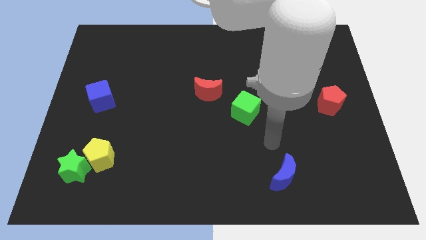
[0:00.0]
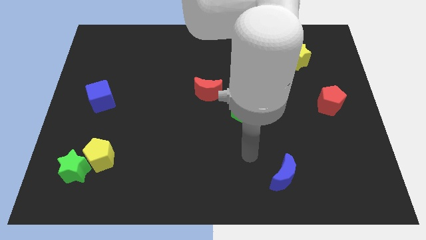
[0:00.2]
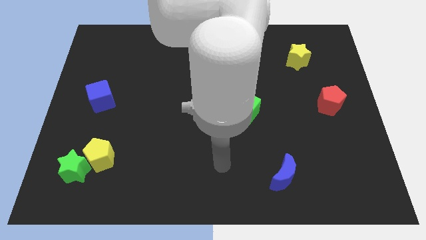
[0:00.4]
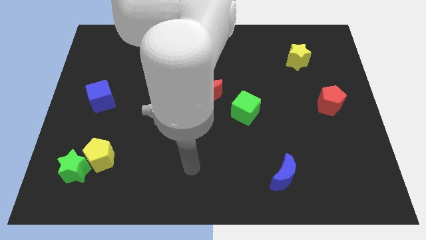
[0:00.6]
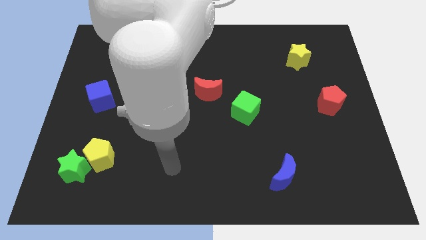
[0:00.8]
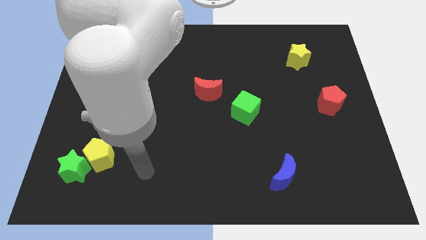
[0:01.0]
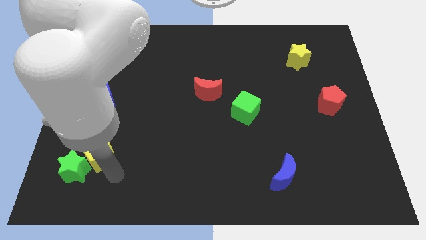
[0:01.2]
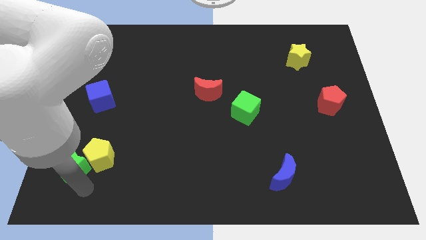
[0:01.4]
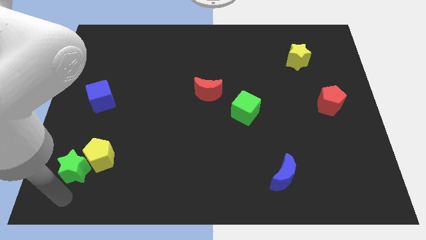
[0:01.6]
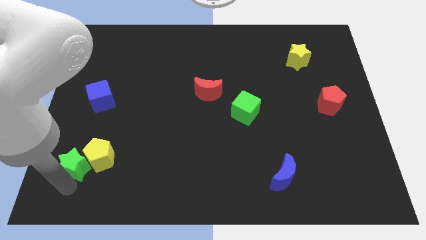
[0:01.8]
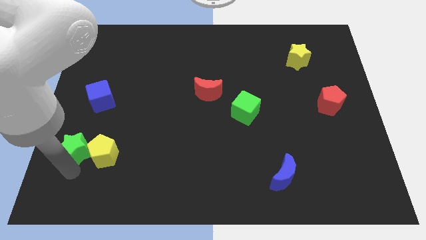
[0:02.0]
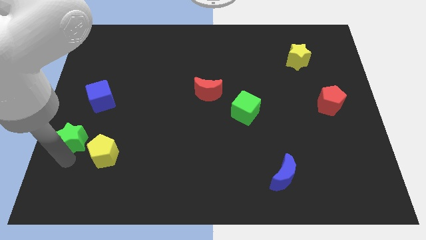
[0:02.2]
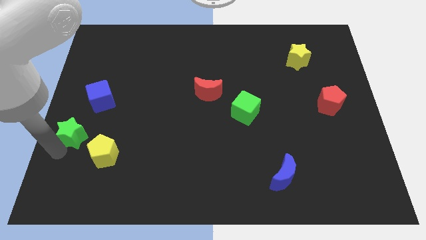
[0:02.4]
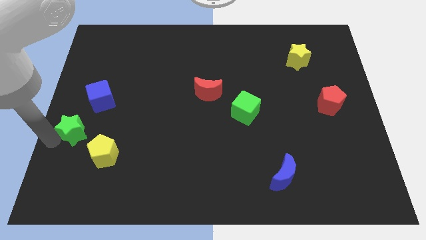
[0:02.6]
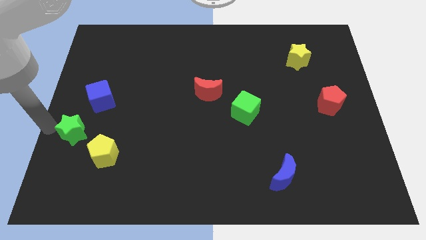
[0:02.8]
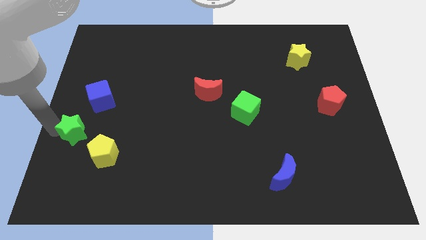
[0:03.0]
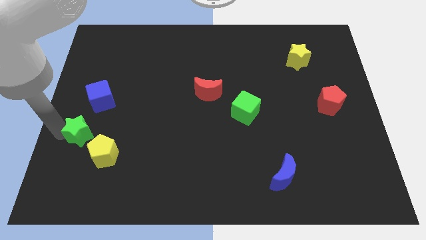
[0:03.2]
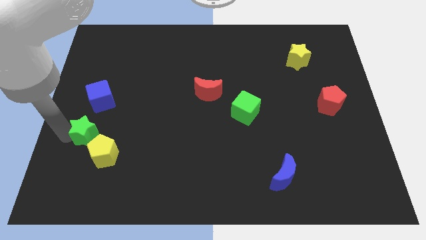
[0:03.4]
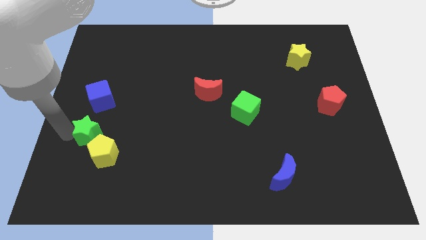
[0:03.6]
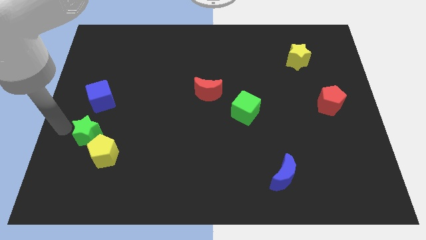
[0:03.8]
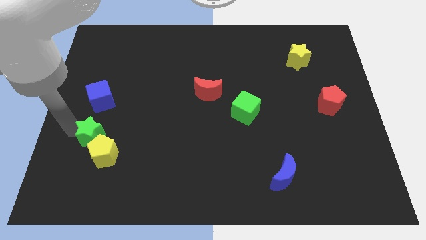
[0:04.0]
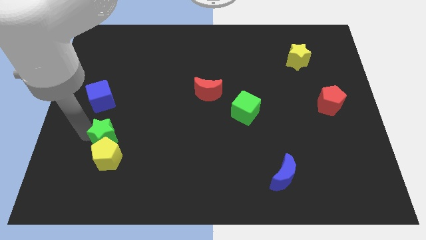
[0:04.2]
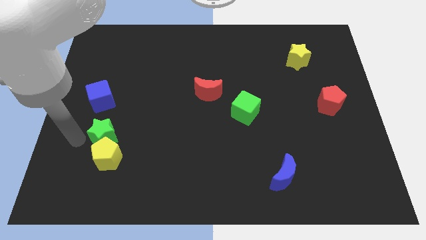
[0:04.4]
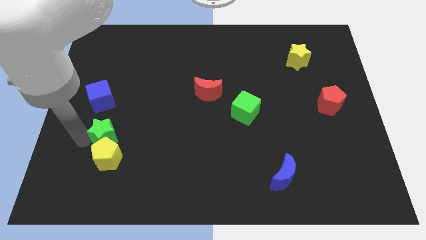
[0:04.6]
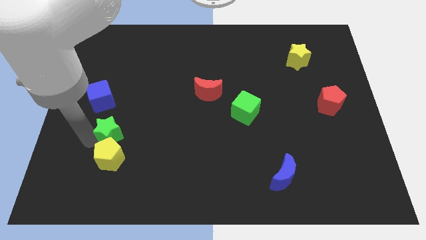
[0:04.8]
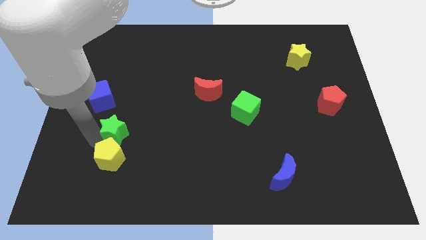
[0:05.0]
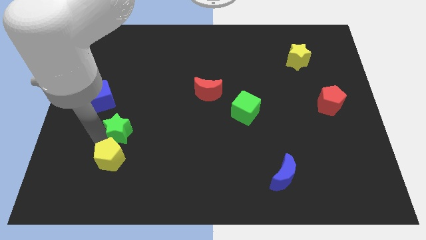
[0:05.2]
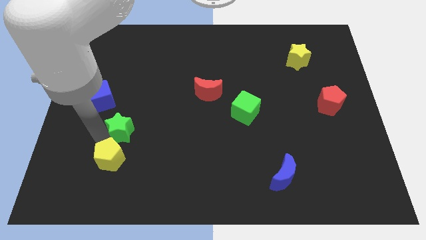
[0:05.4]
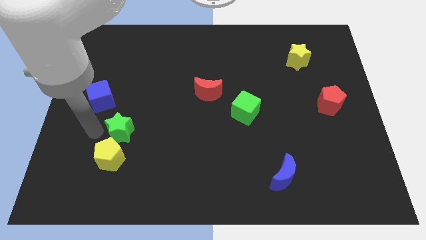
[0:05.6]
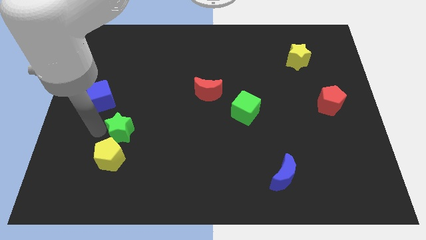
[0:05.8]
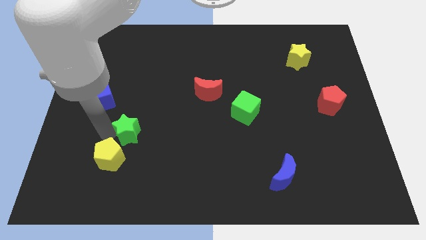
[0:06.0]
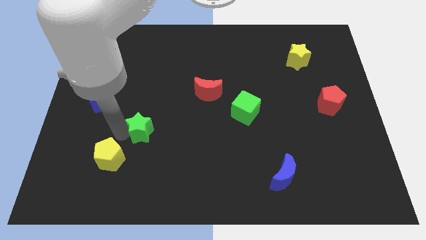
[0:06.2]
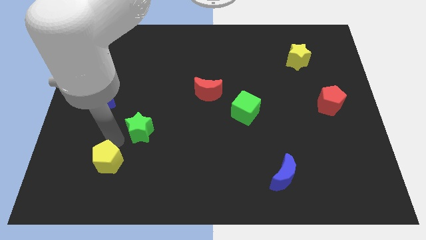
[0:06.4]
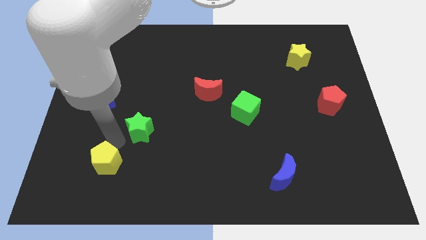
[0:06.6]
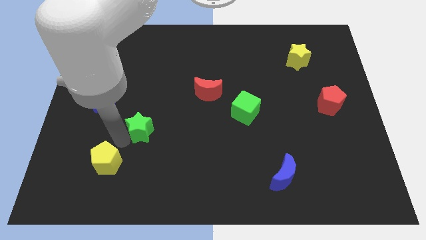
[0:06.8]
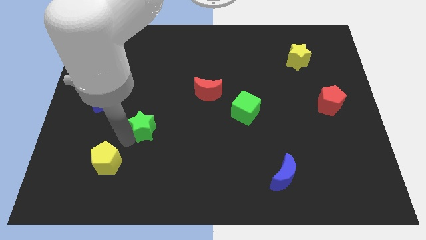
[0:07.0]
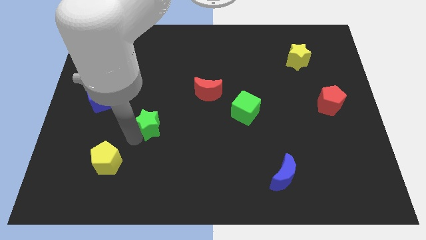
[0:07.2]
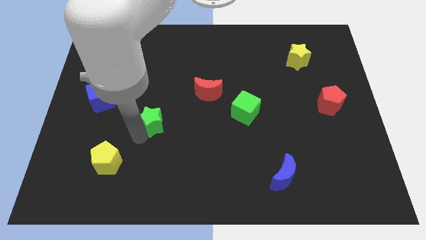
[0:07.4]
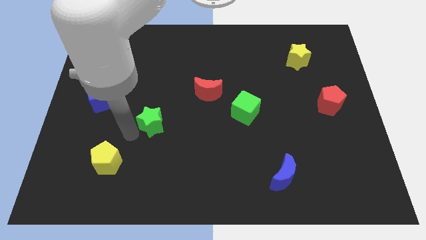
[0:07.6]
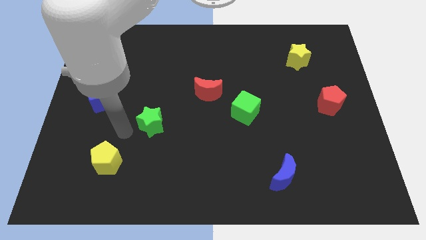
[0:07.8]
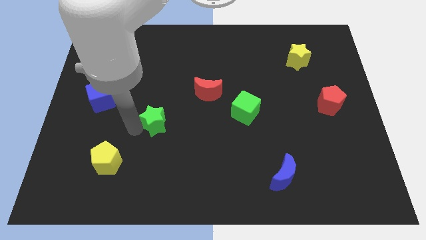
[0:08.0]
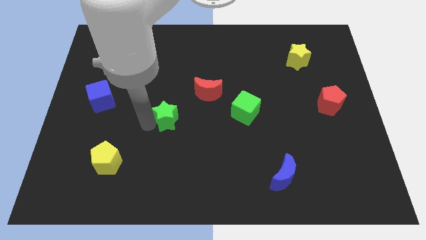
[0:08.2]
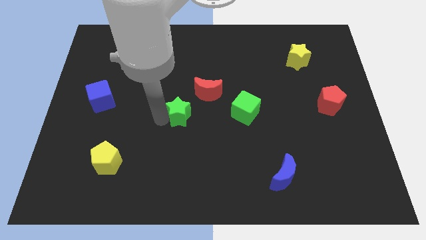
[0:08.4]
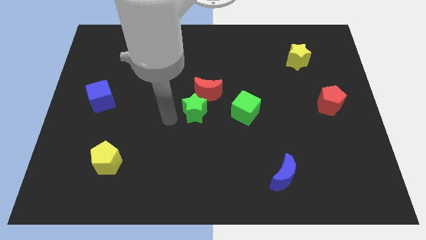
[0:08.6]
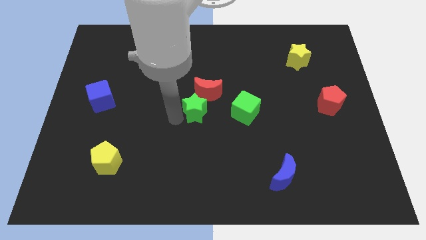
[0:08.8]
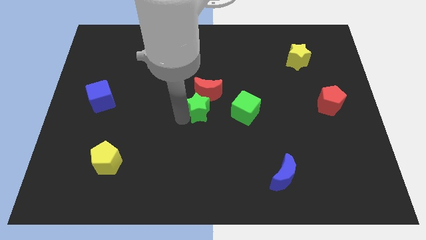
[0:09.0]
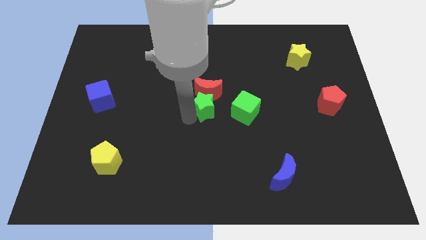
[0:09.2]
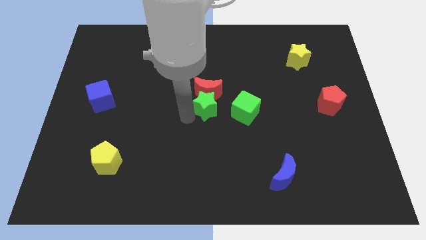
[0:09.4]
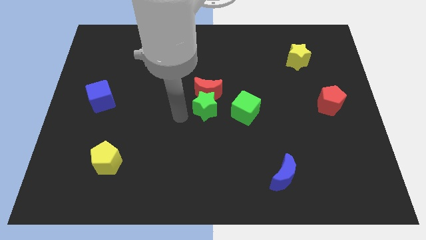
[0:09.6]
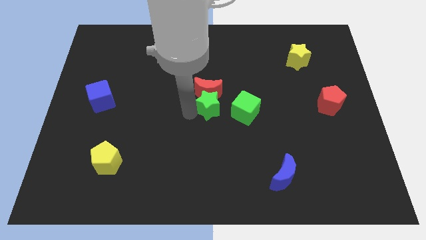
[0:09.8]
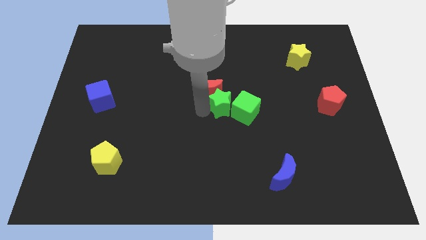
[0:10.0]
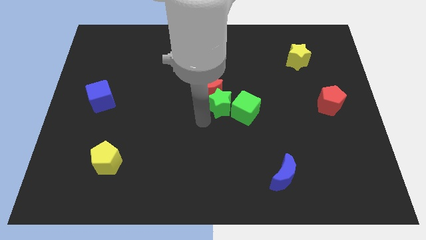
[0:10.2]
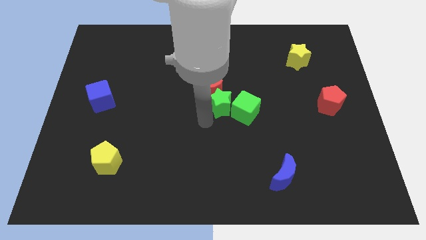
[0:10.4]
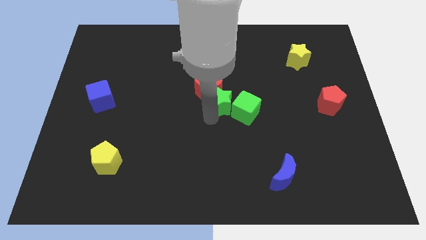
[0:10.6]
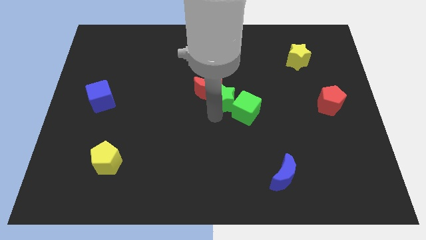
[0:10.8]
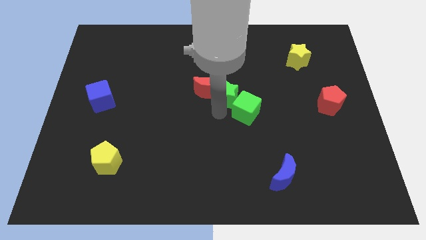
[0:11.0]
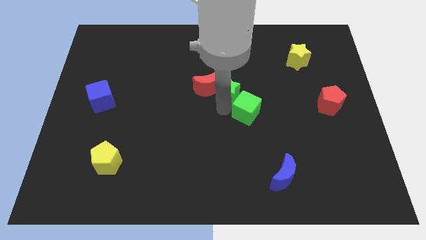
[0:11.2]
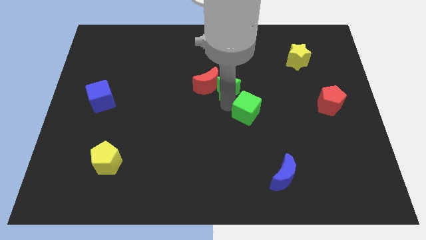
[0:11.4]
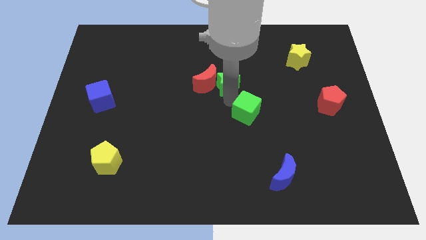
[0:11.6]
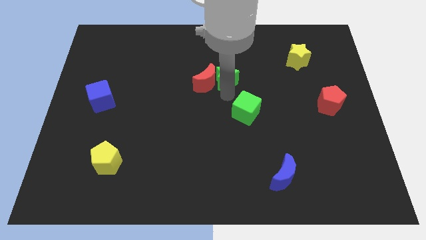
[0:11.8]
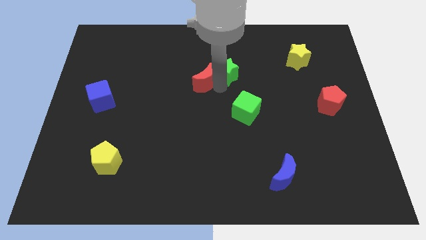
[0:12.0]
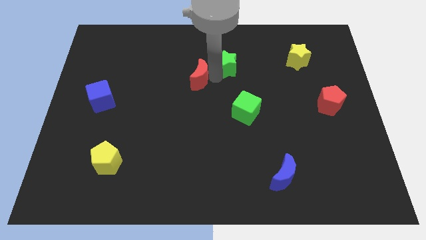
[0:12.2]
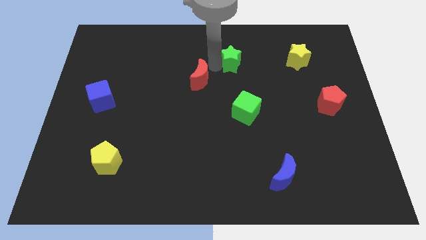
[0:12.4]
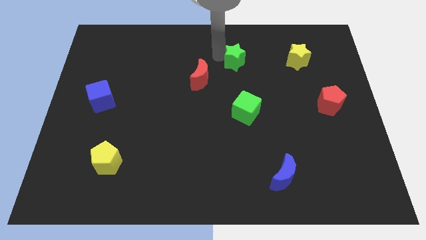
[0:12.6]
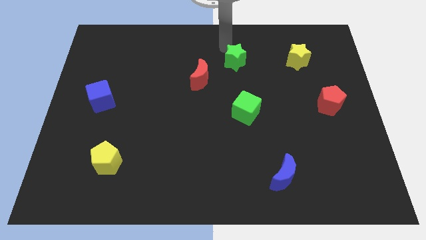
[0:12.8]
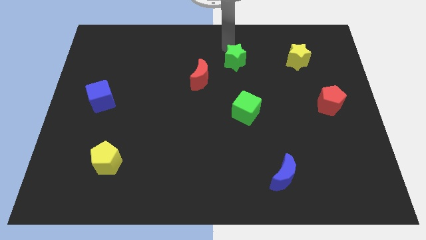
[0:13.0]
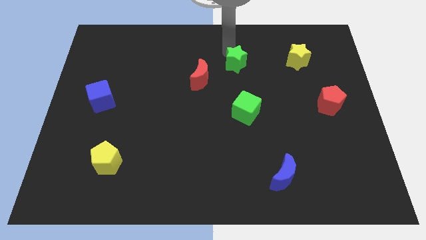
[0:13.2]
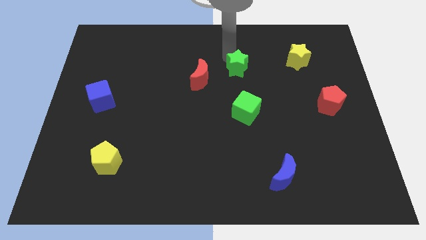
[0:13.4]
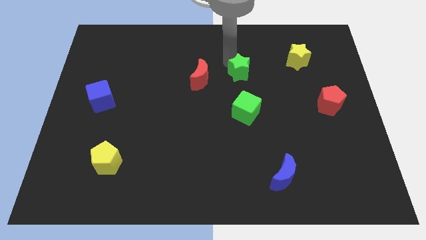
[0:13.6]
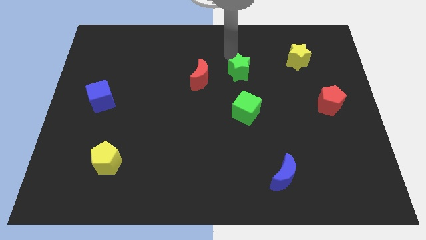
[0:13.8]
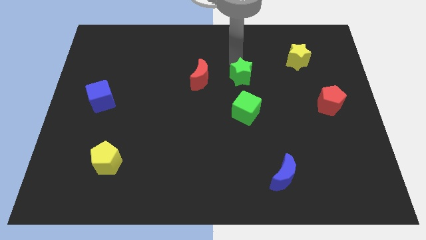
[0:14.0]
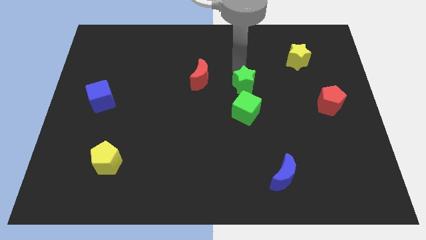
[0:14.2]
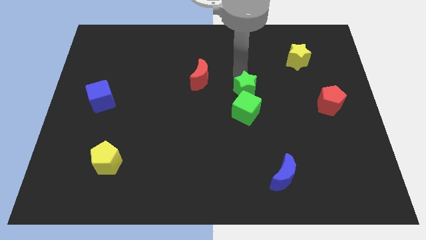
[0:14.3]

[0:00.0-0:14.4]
move the green star diagonally up and to the right of the green cube

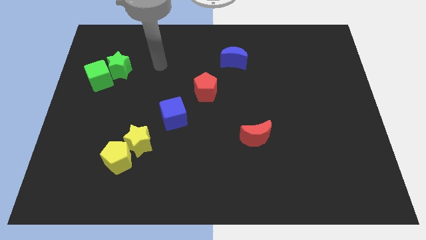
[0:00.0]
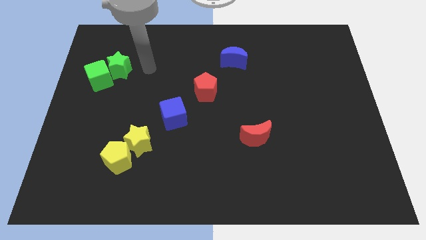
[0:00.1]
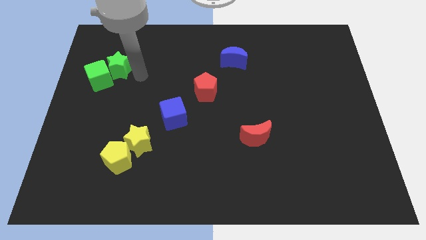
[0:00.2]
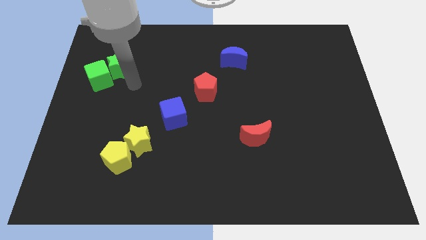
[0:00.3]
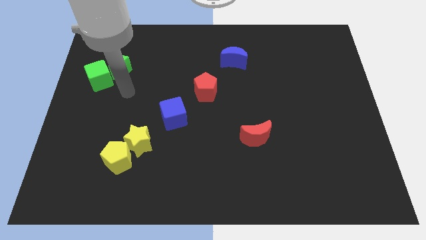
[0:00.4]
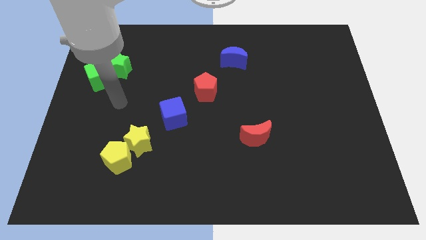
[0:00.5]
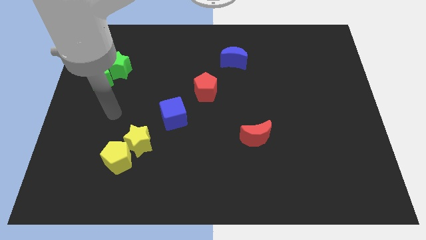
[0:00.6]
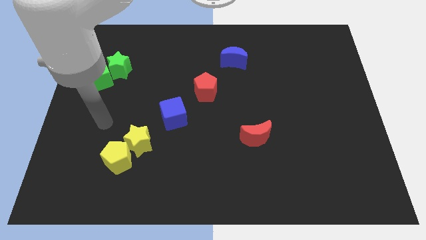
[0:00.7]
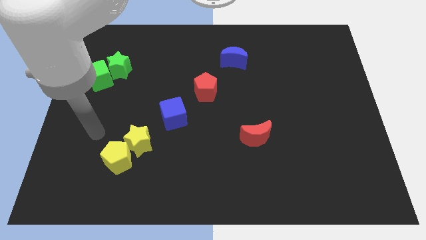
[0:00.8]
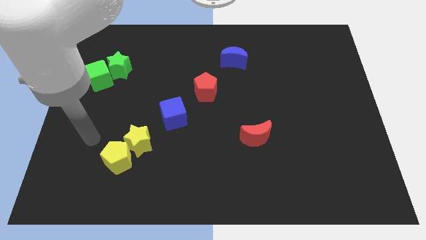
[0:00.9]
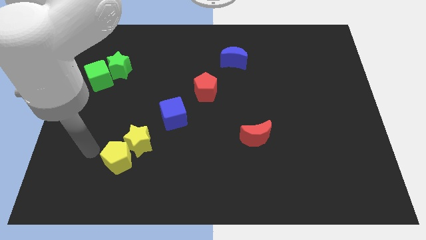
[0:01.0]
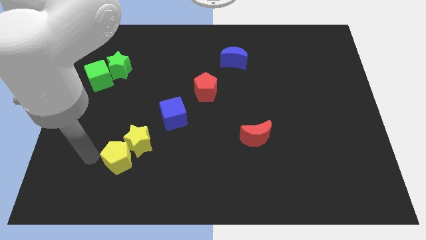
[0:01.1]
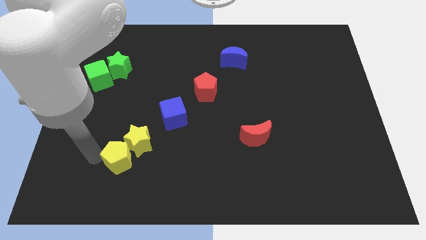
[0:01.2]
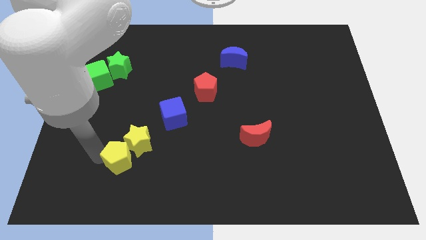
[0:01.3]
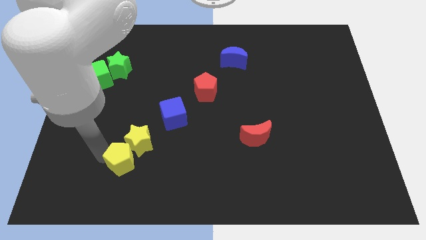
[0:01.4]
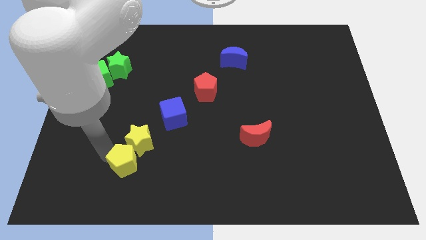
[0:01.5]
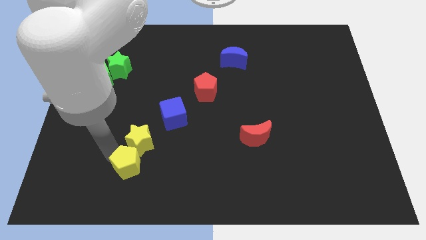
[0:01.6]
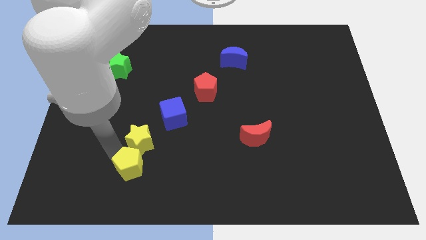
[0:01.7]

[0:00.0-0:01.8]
slide the yellow pentagon diagonally down and to the right of the yellow star
